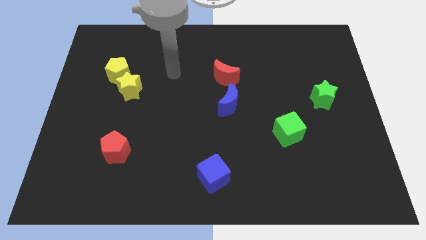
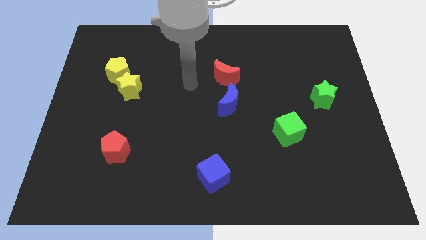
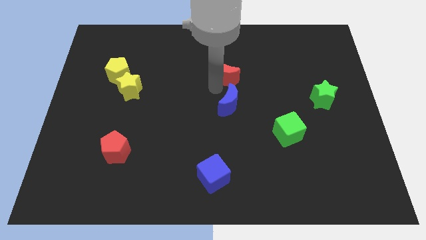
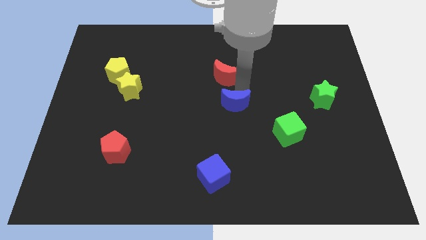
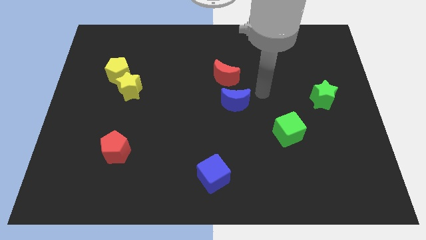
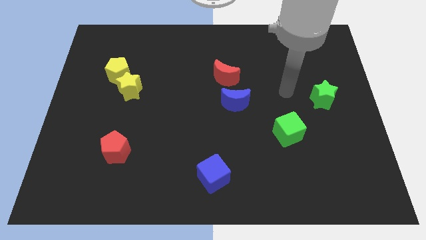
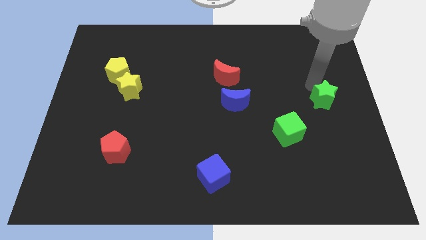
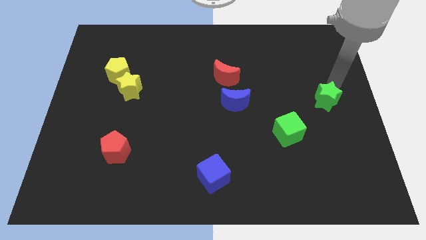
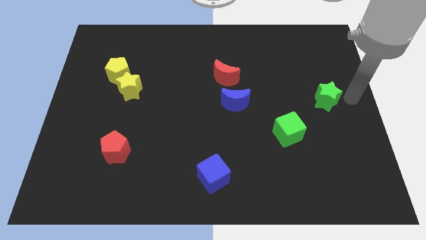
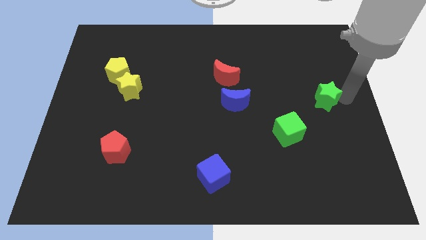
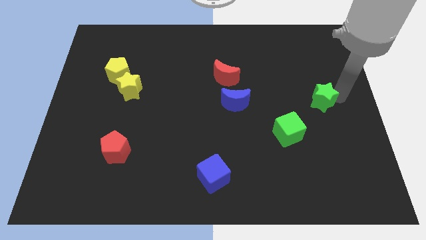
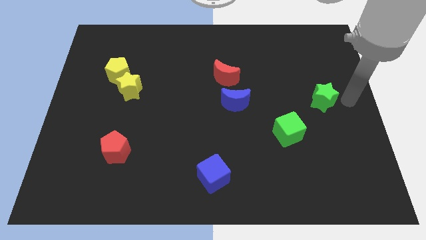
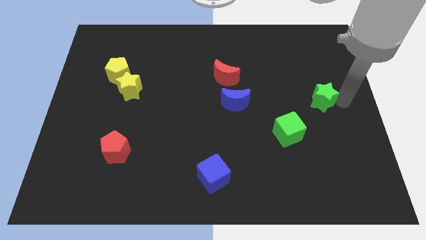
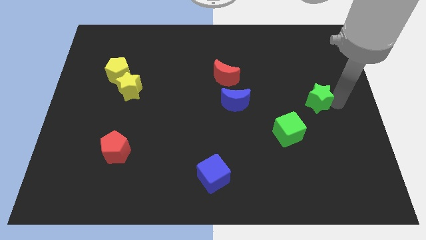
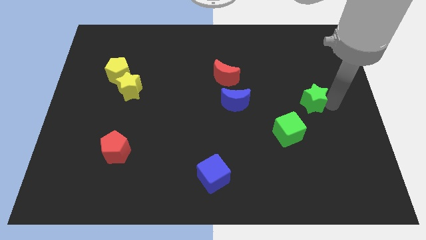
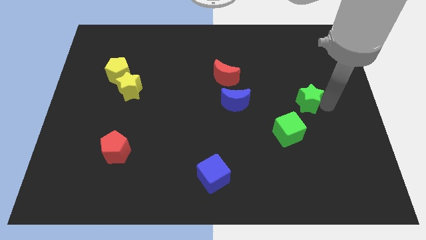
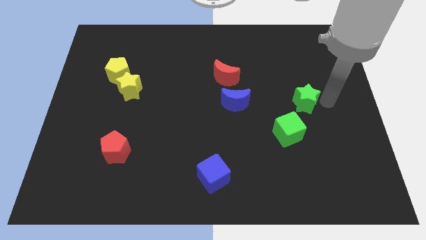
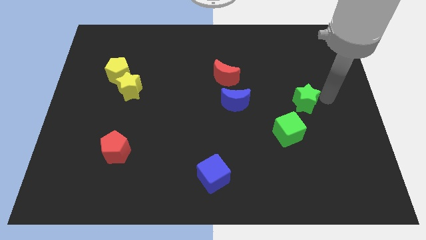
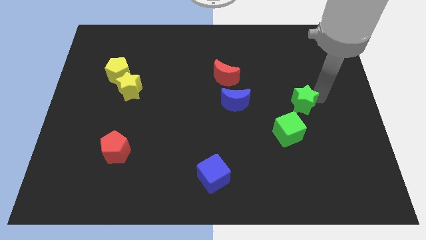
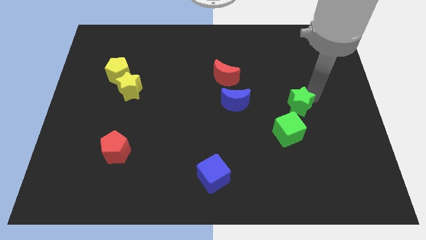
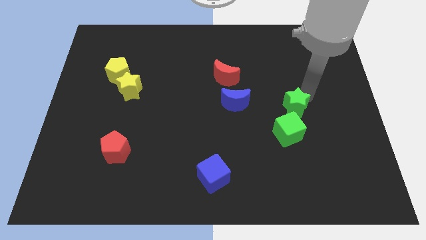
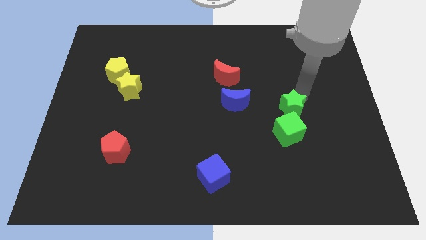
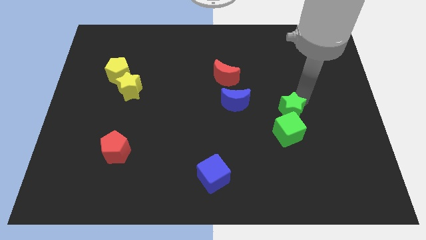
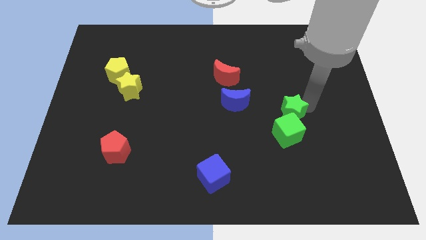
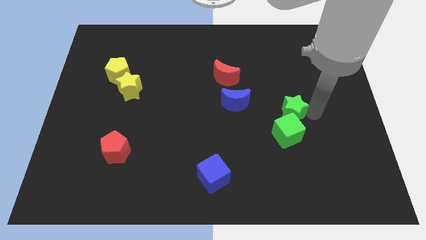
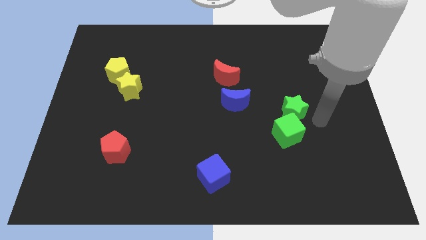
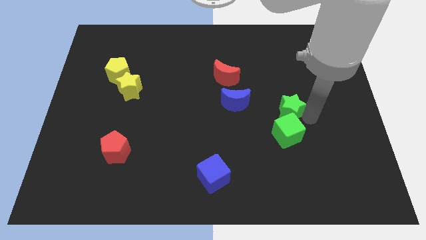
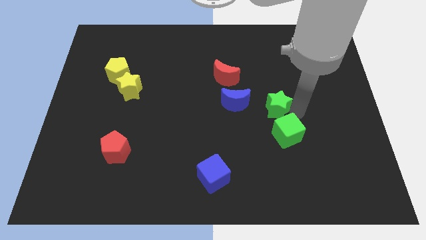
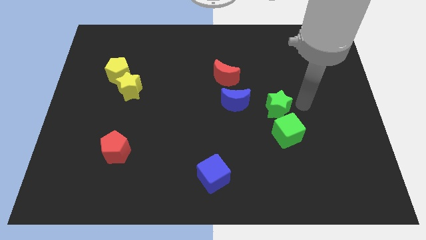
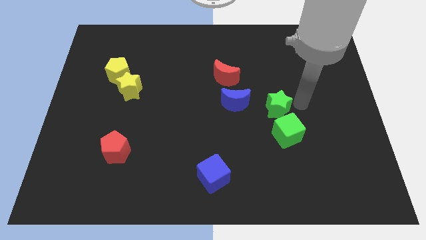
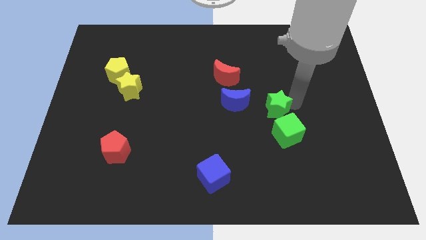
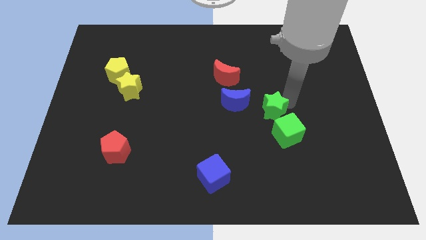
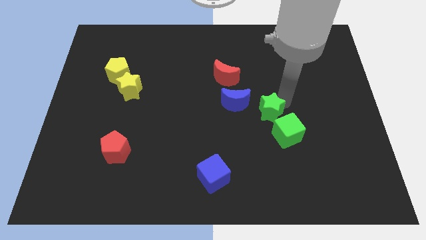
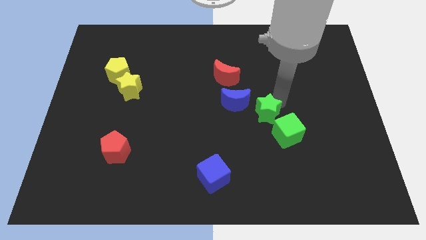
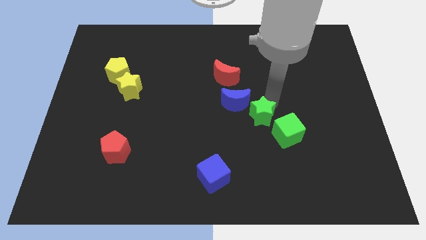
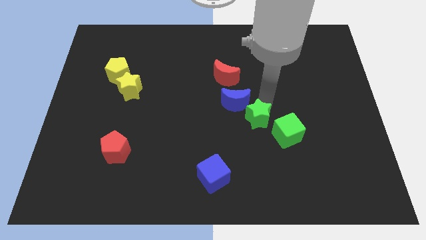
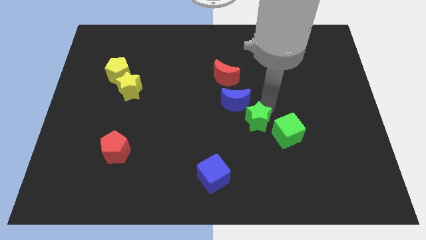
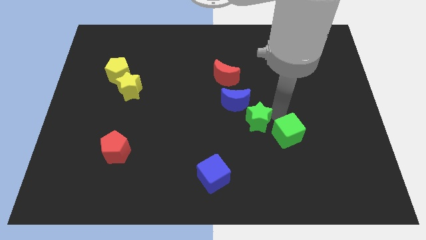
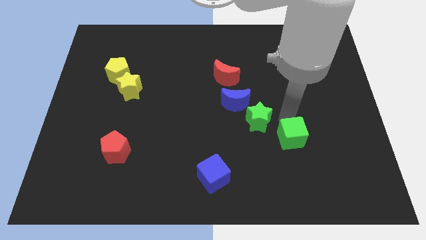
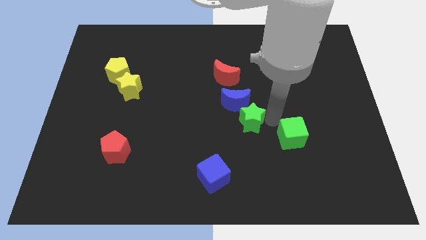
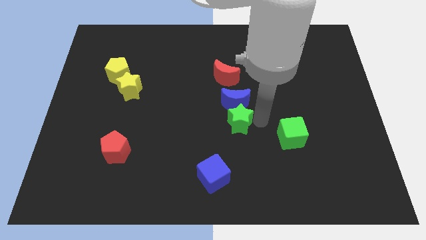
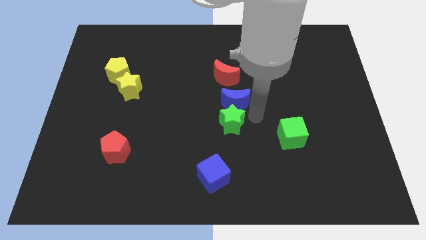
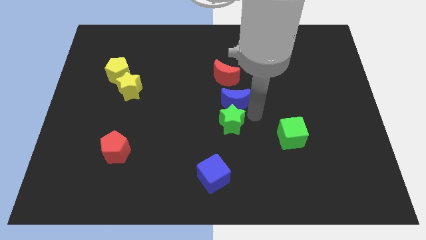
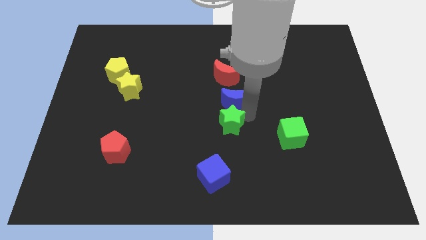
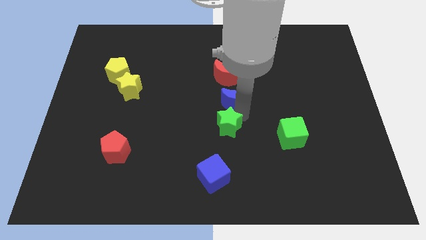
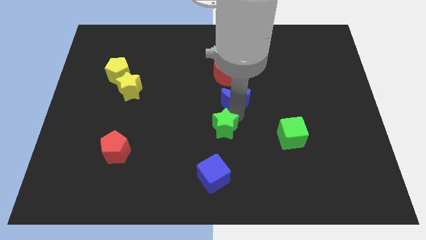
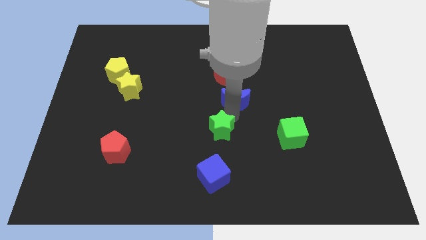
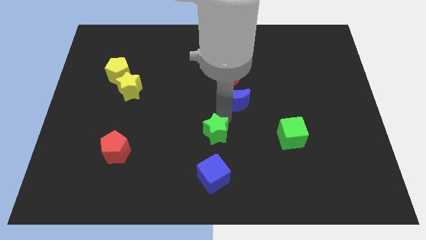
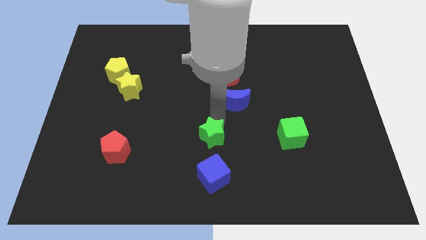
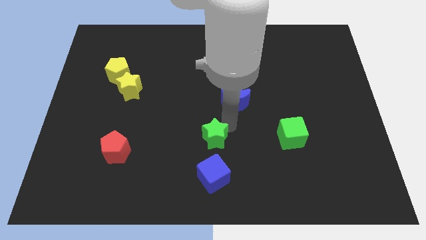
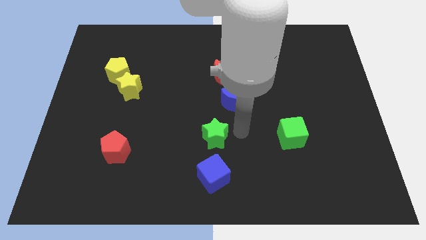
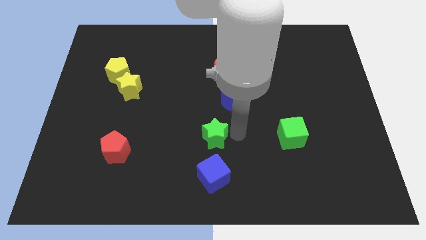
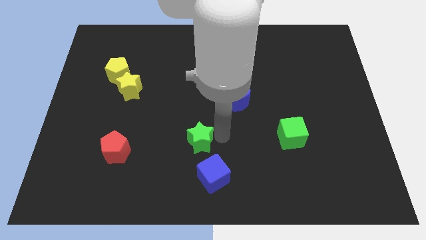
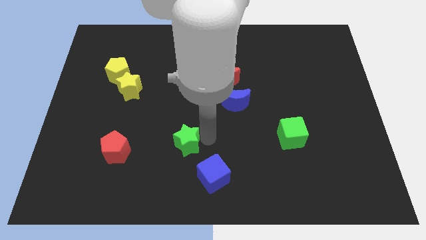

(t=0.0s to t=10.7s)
move the green star just right of the red pentagon

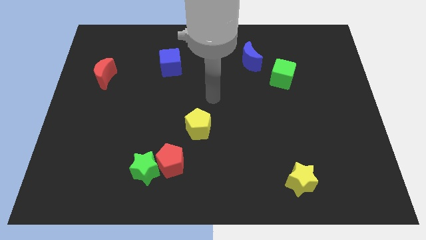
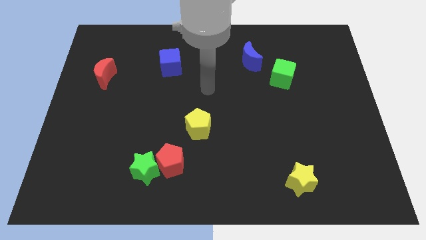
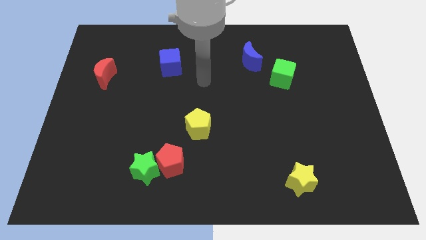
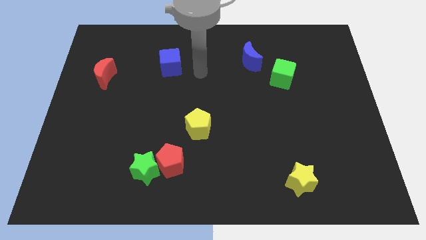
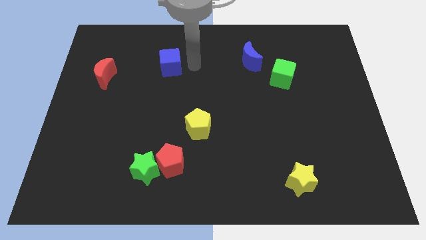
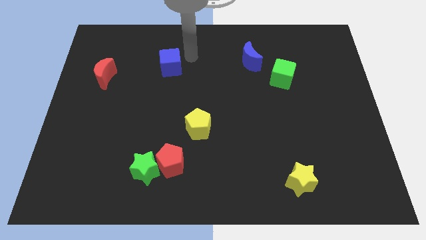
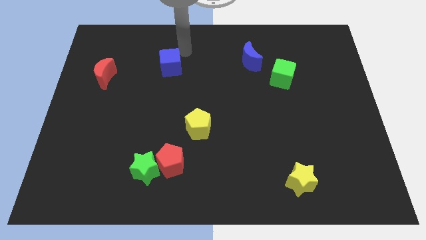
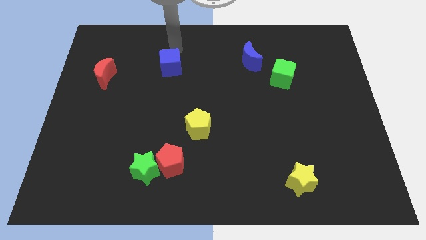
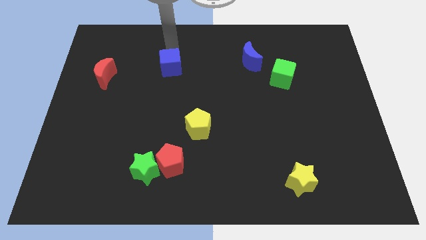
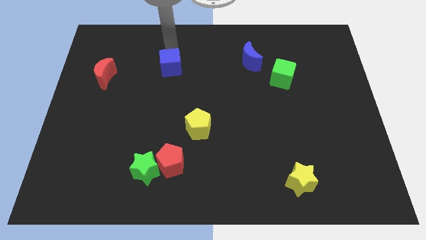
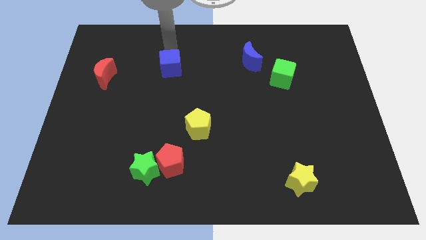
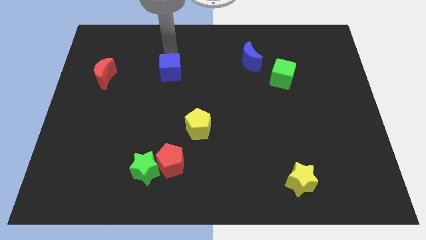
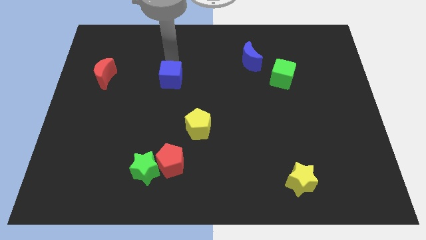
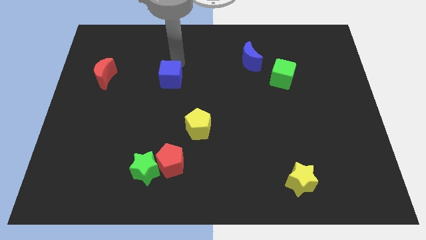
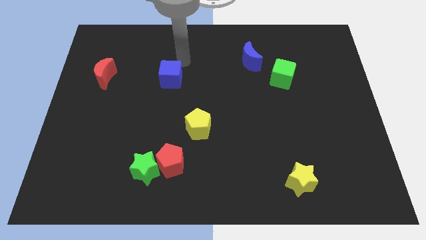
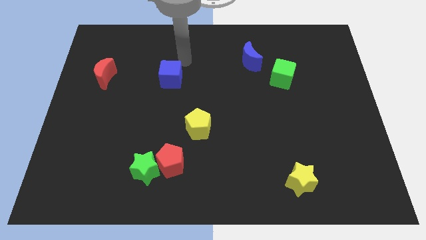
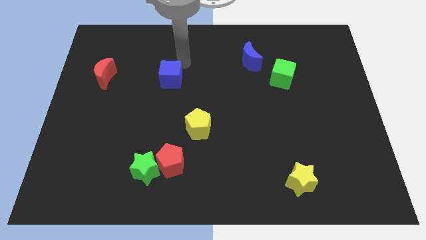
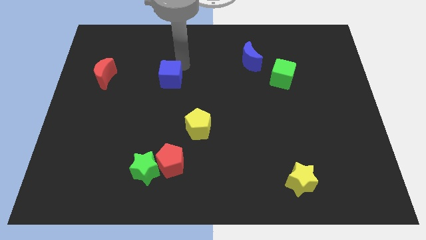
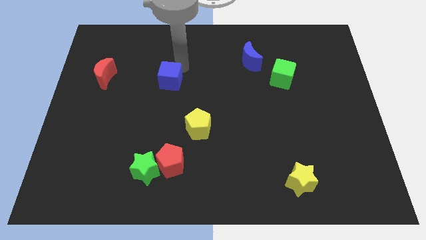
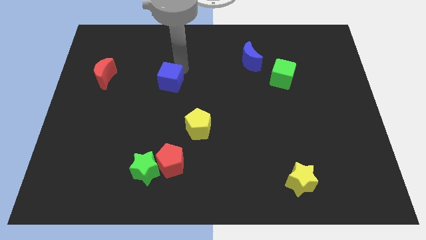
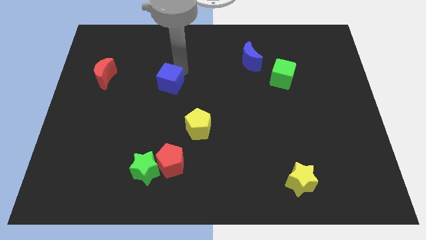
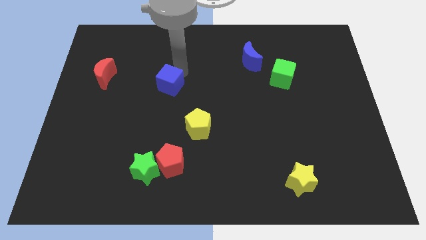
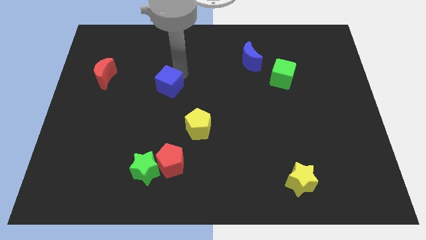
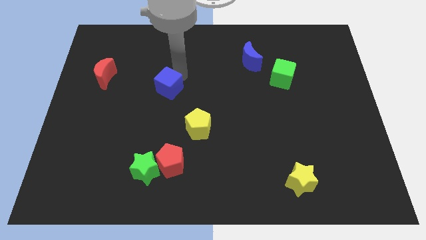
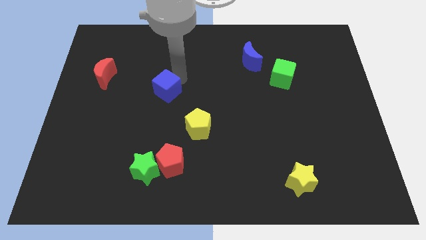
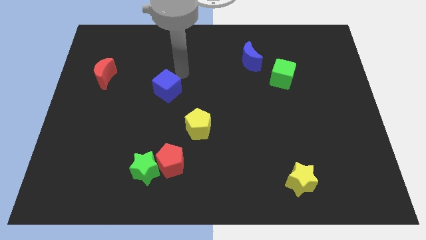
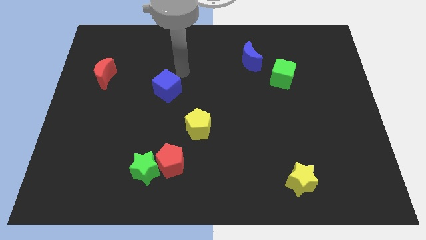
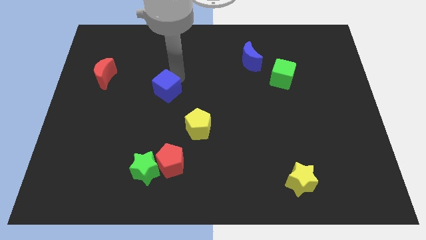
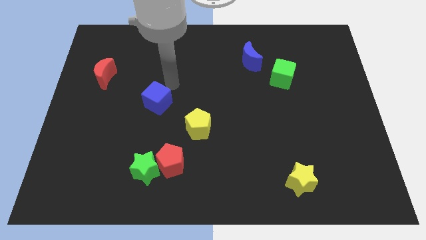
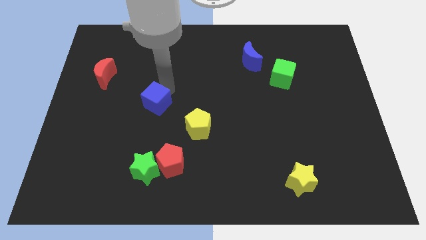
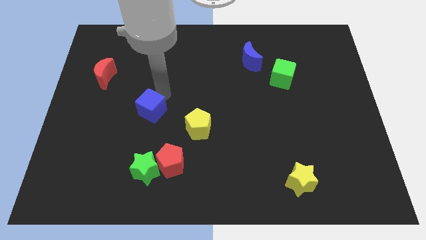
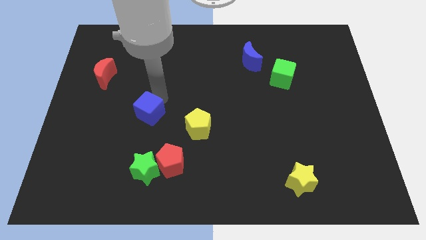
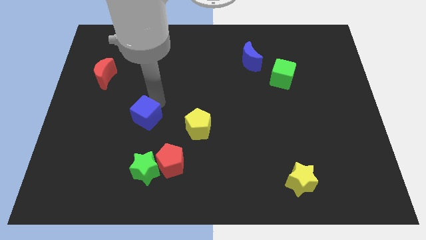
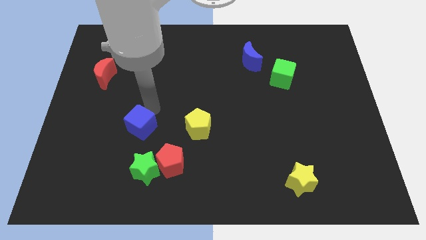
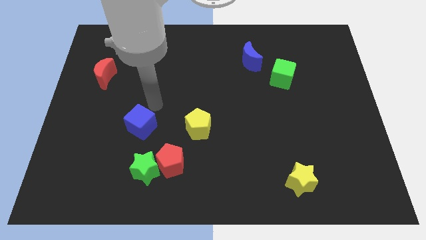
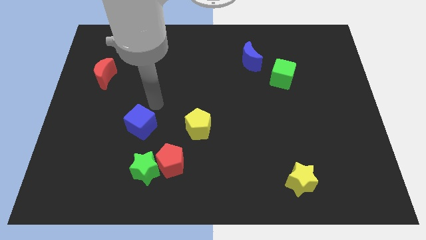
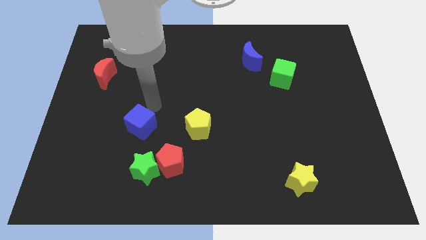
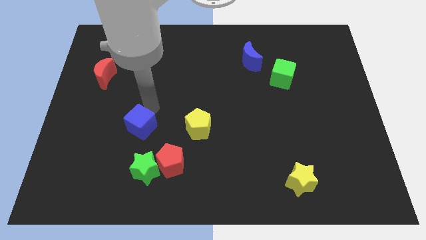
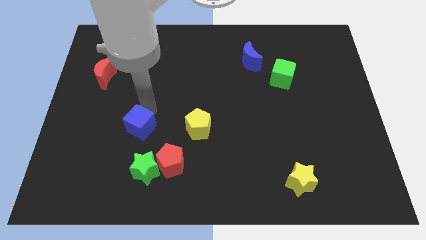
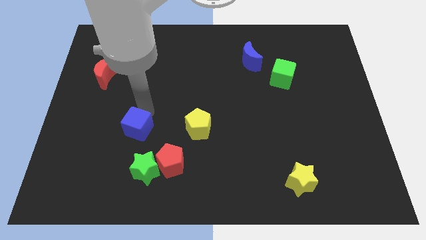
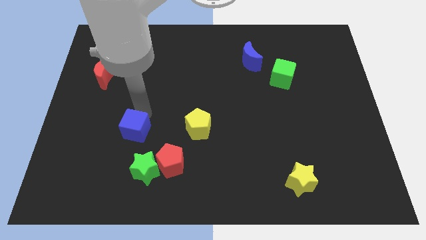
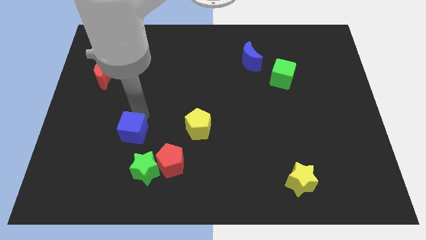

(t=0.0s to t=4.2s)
put the blue cube diagonally up and to the left of the green star
